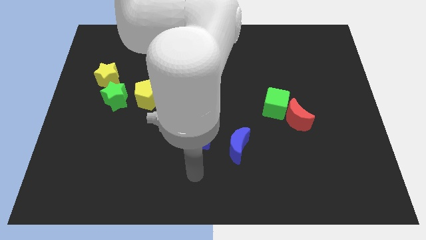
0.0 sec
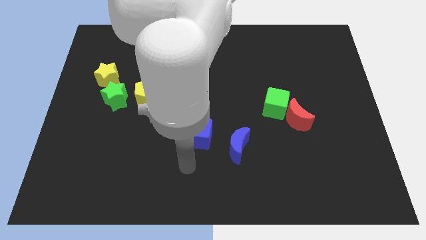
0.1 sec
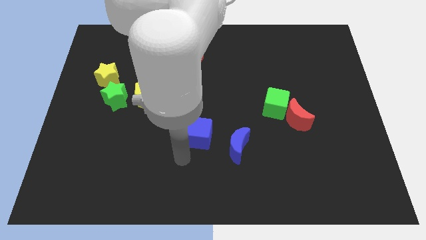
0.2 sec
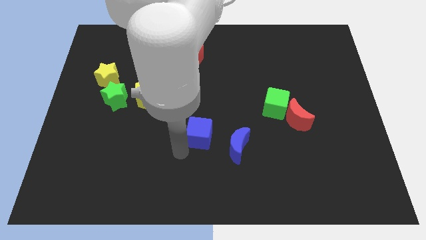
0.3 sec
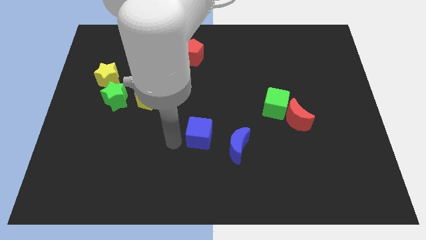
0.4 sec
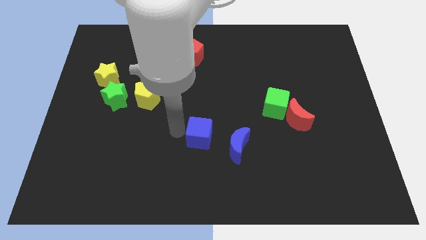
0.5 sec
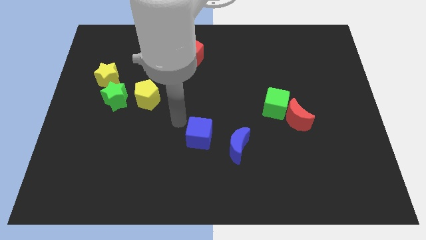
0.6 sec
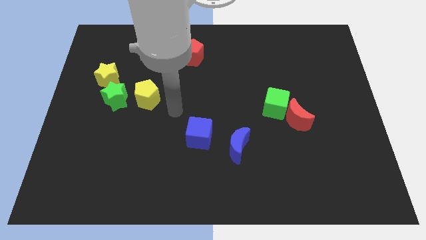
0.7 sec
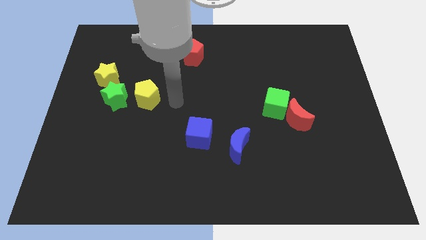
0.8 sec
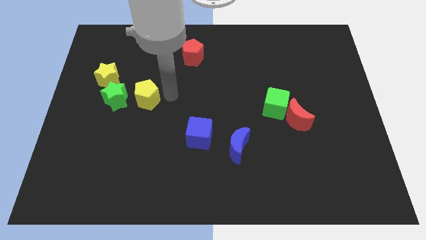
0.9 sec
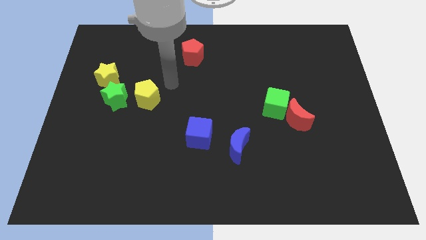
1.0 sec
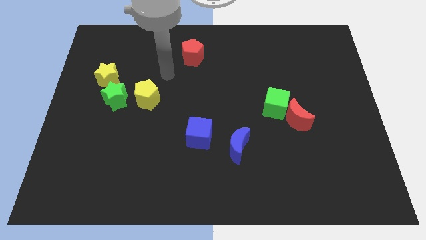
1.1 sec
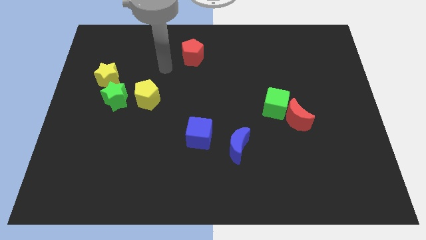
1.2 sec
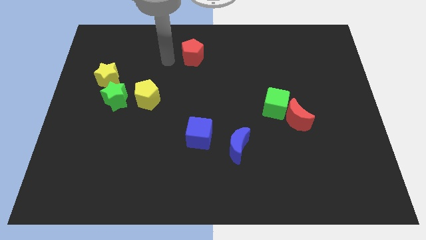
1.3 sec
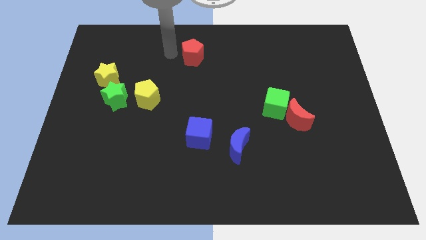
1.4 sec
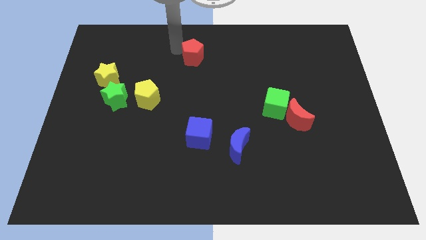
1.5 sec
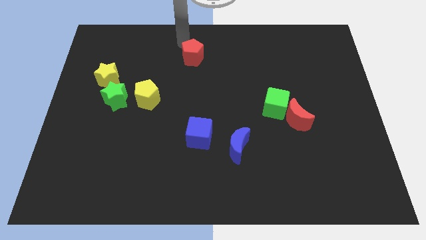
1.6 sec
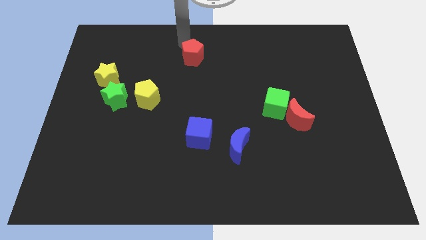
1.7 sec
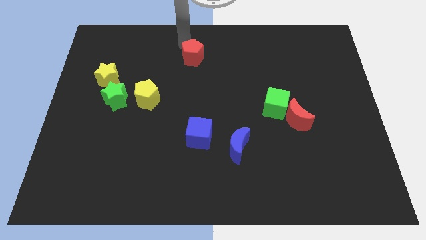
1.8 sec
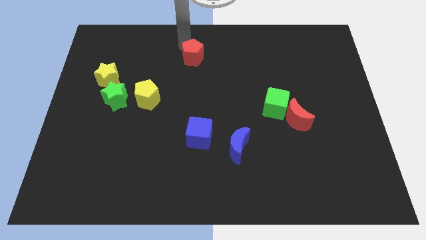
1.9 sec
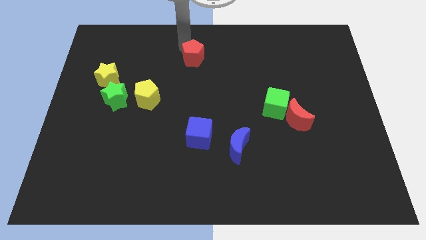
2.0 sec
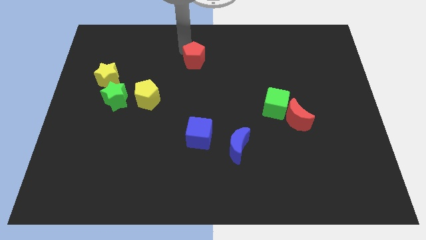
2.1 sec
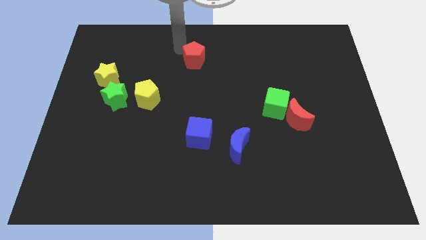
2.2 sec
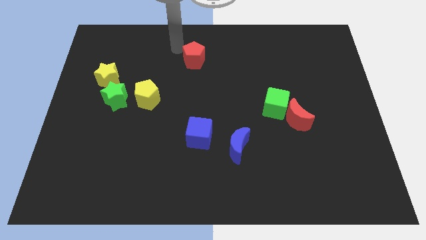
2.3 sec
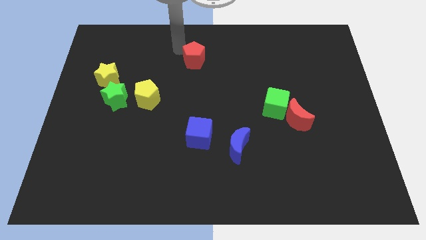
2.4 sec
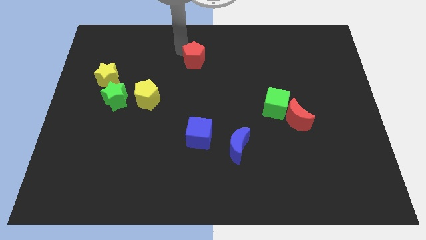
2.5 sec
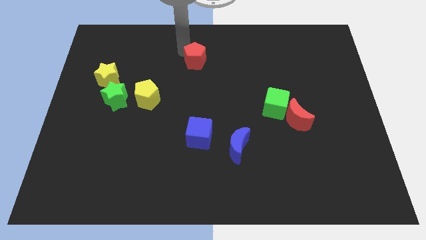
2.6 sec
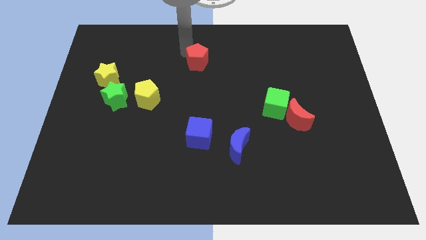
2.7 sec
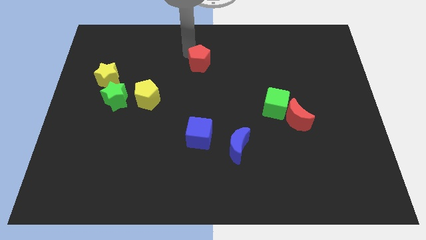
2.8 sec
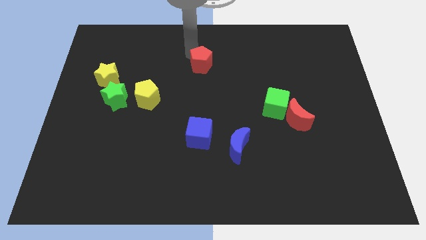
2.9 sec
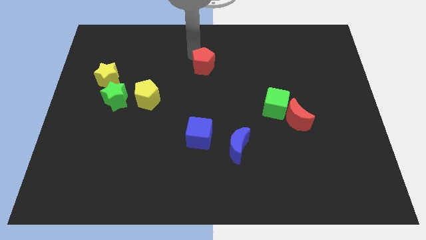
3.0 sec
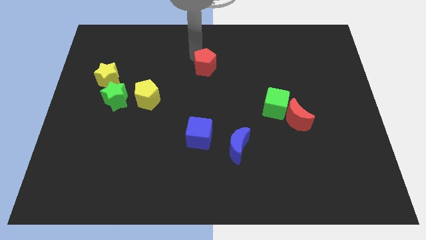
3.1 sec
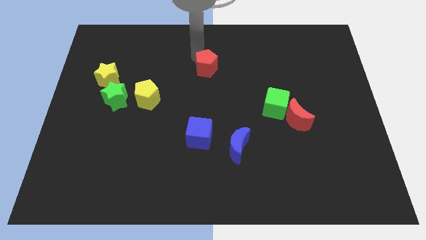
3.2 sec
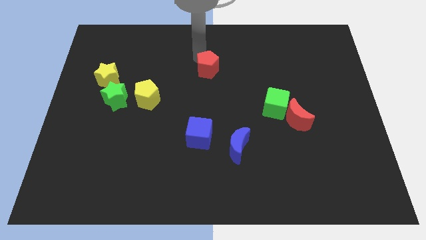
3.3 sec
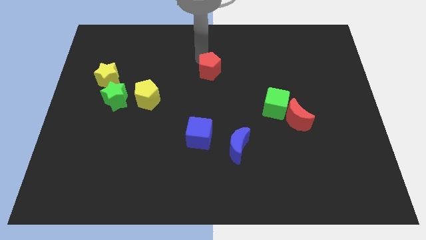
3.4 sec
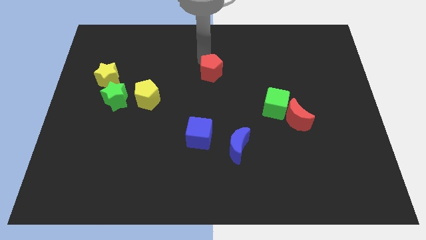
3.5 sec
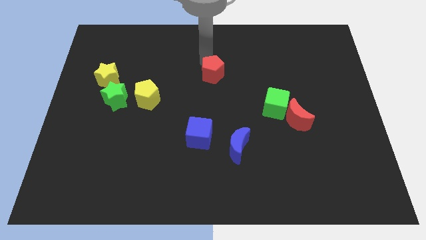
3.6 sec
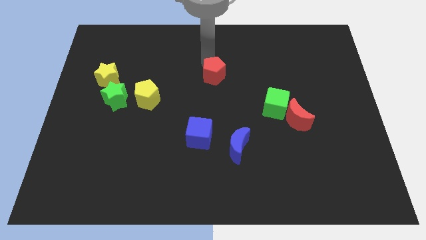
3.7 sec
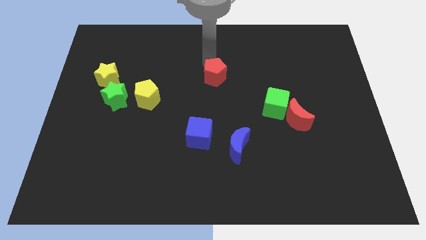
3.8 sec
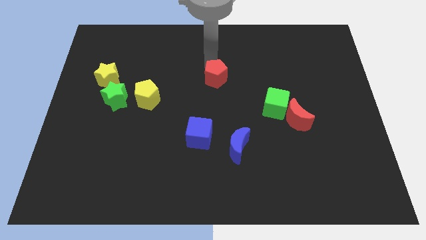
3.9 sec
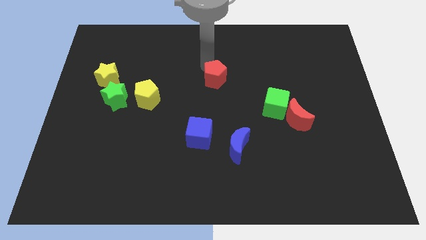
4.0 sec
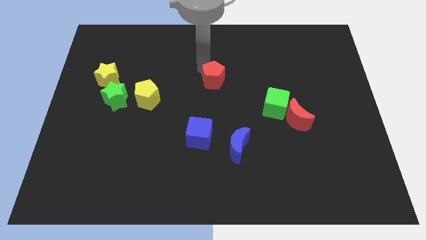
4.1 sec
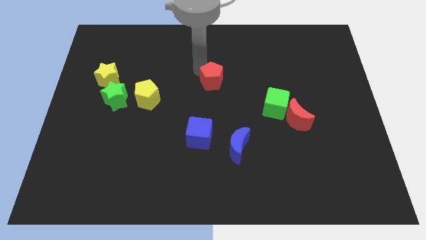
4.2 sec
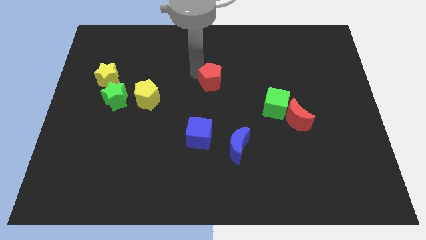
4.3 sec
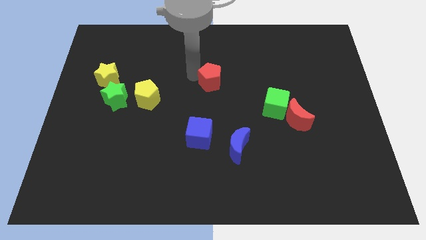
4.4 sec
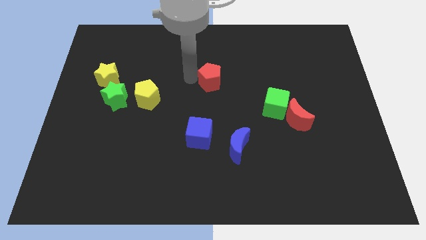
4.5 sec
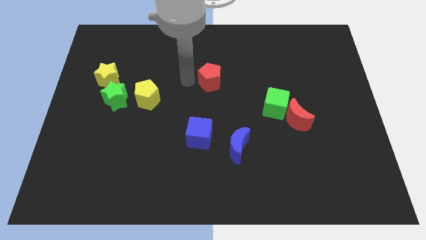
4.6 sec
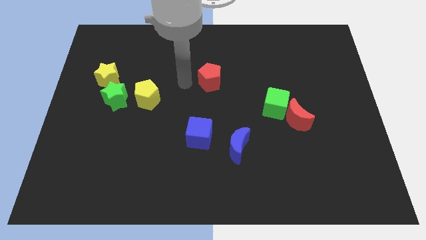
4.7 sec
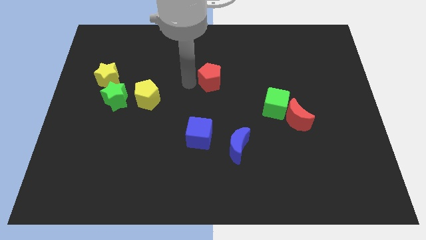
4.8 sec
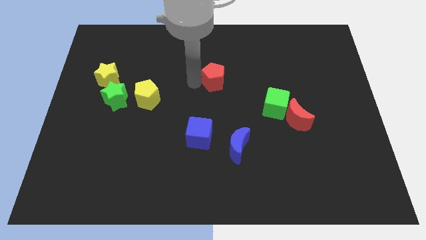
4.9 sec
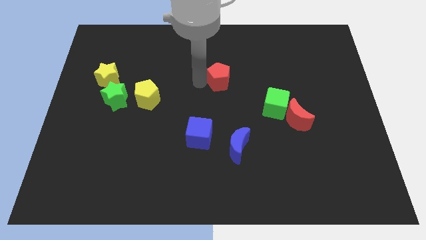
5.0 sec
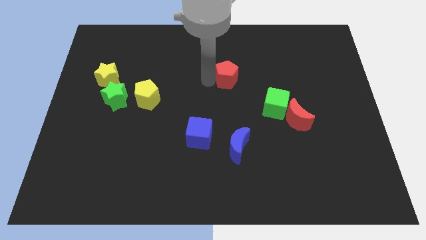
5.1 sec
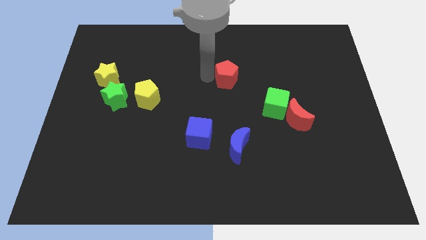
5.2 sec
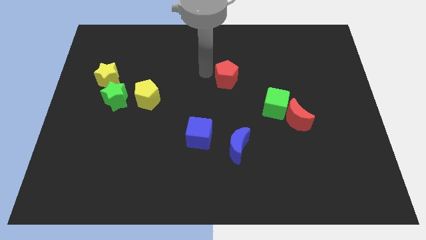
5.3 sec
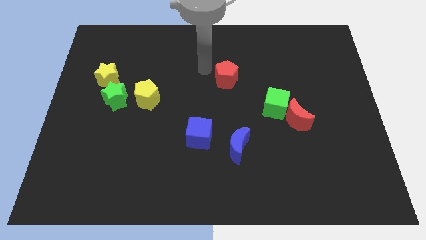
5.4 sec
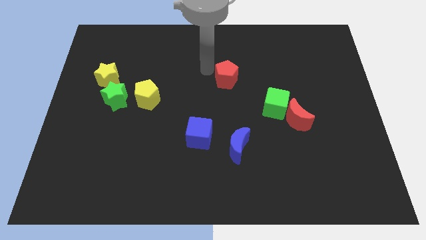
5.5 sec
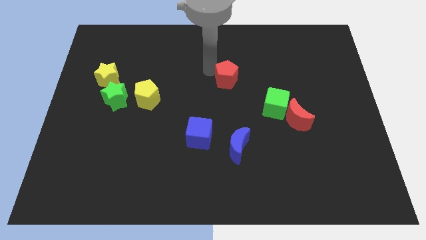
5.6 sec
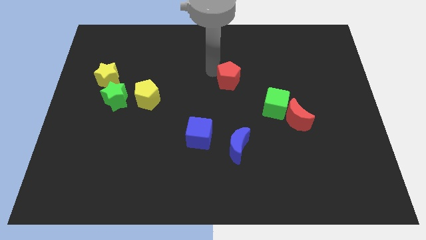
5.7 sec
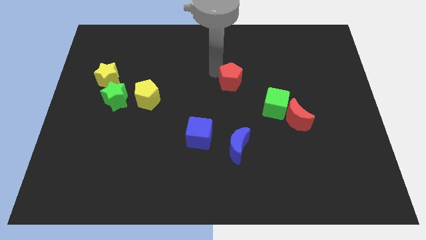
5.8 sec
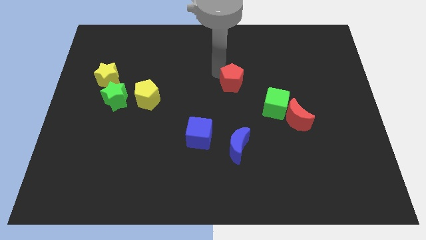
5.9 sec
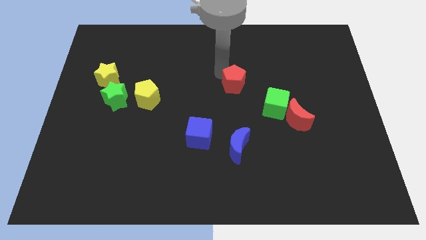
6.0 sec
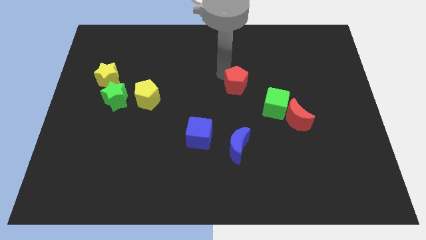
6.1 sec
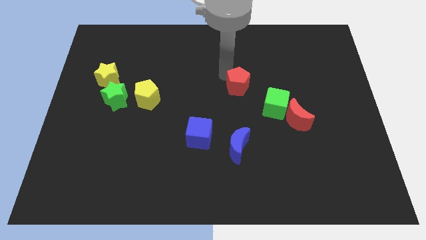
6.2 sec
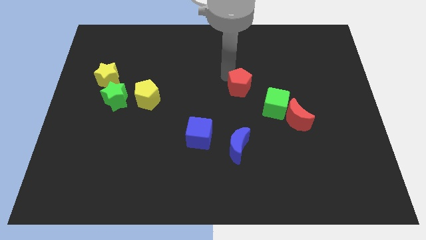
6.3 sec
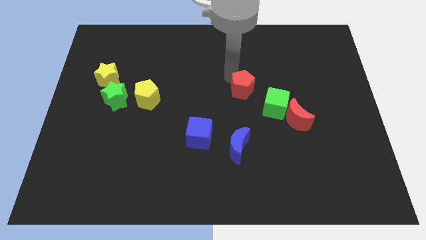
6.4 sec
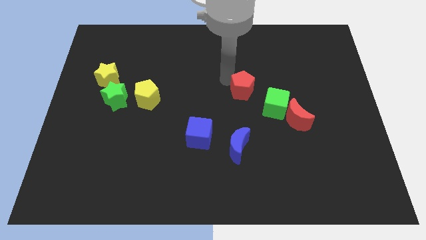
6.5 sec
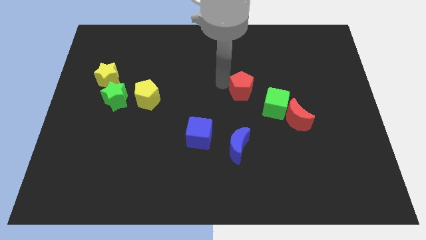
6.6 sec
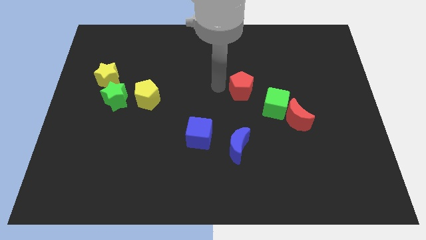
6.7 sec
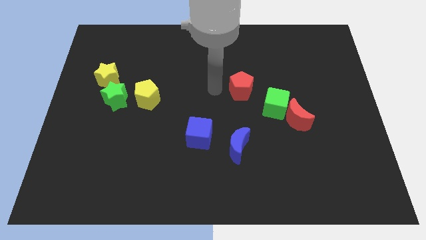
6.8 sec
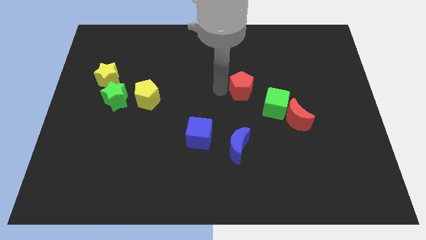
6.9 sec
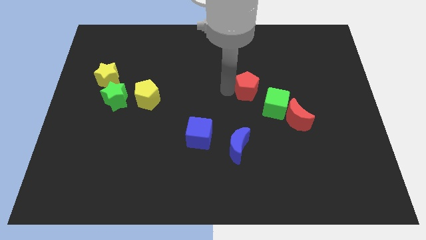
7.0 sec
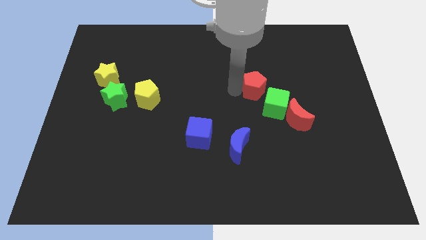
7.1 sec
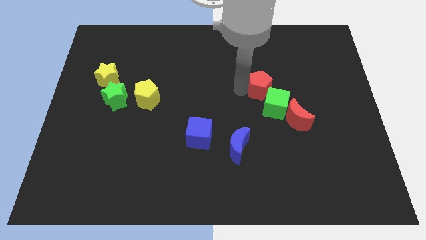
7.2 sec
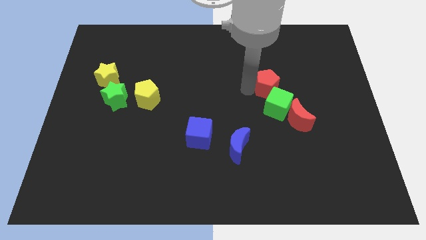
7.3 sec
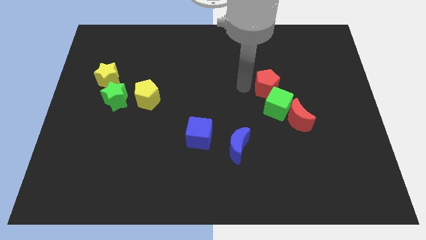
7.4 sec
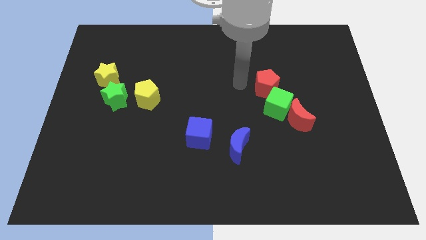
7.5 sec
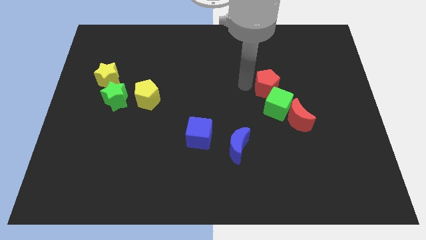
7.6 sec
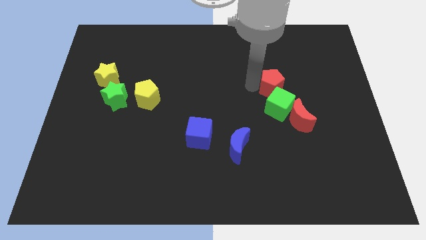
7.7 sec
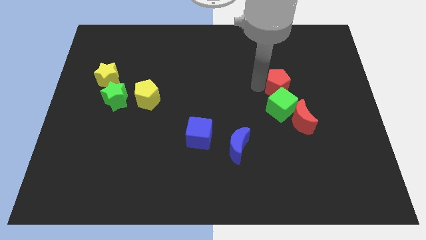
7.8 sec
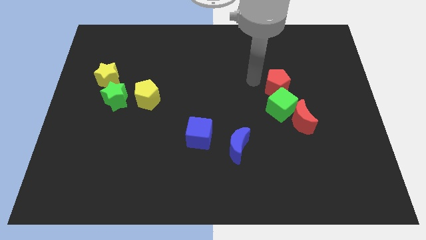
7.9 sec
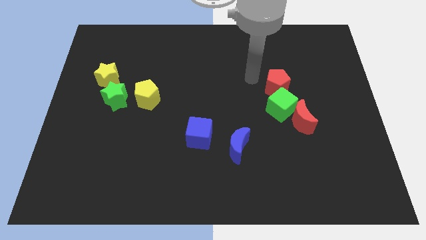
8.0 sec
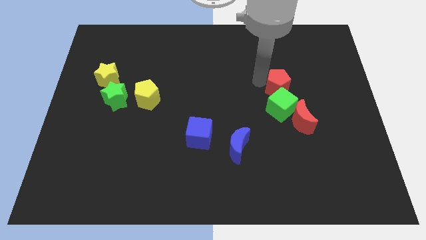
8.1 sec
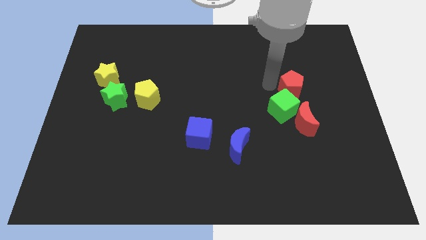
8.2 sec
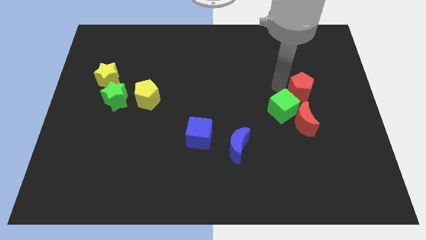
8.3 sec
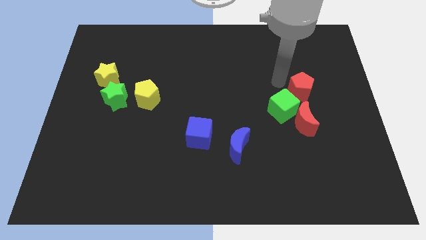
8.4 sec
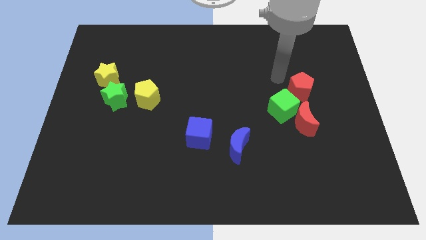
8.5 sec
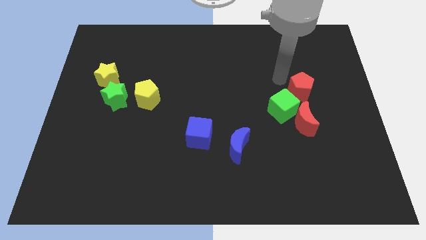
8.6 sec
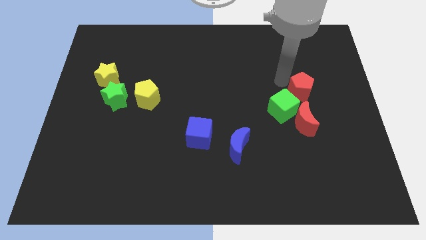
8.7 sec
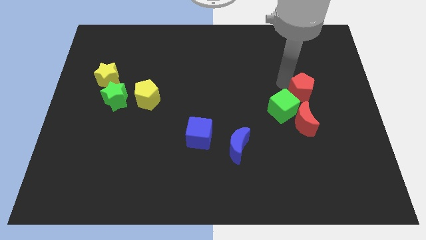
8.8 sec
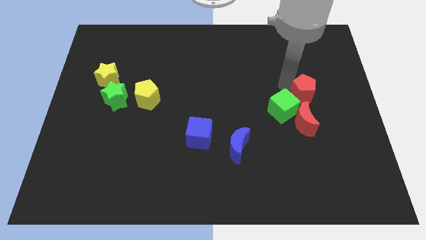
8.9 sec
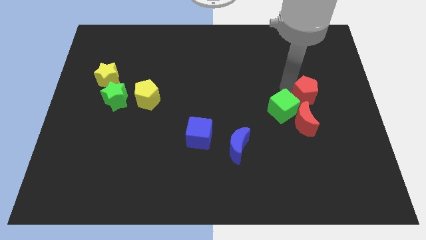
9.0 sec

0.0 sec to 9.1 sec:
put the red pentagon to the top right of the red moon
